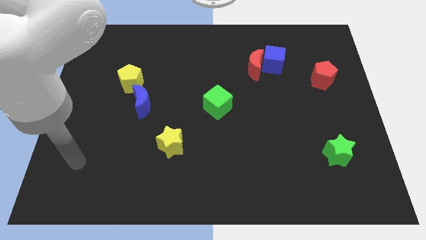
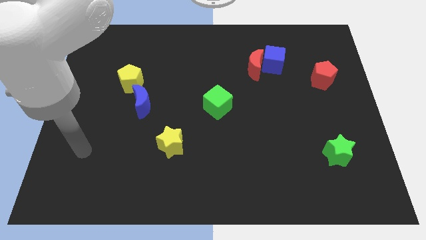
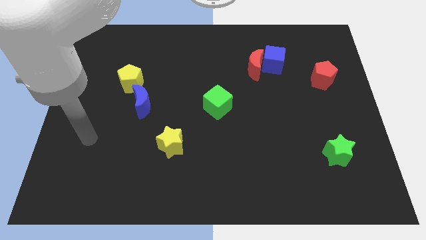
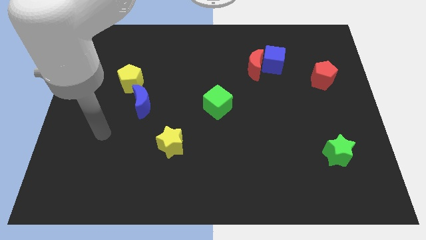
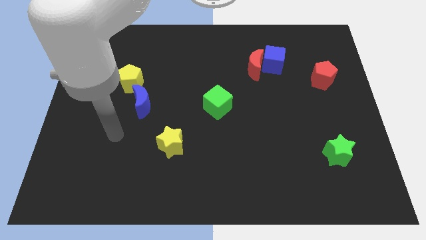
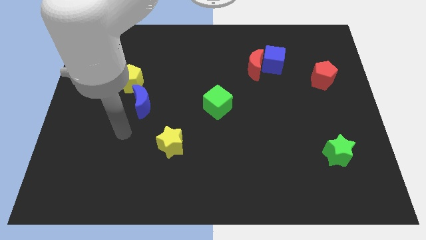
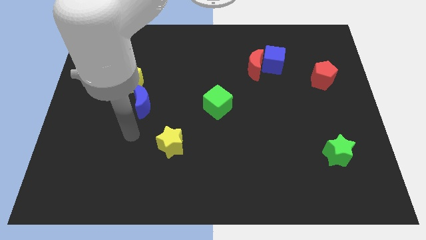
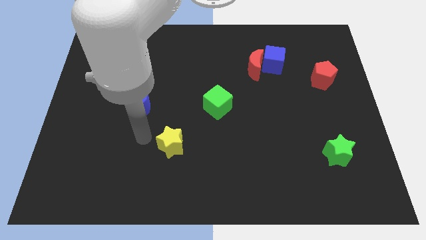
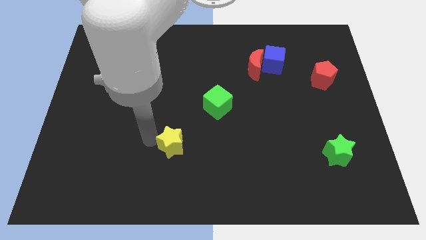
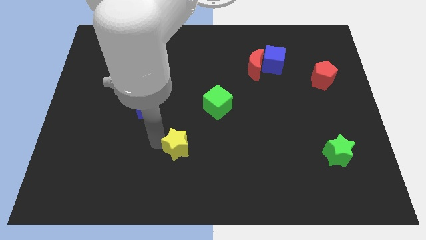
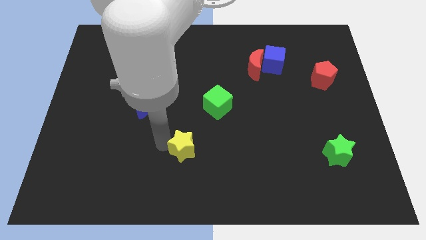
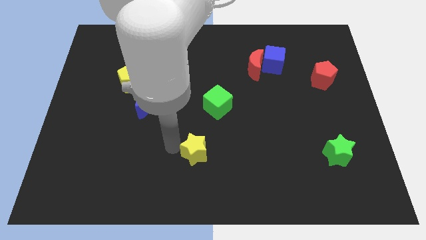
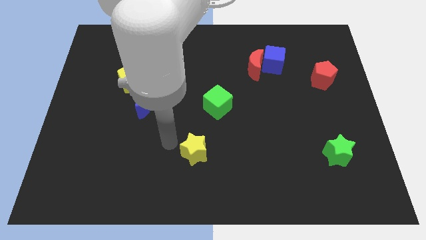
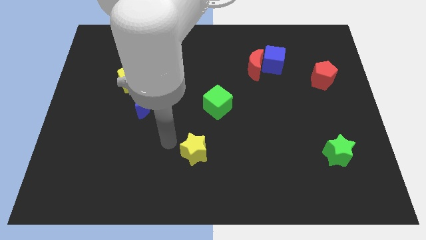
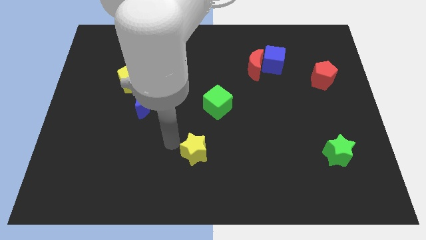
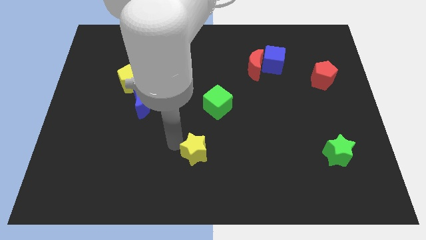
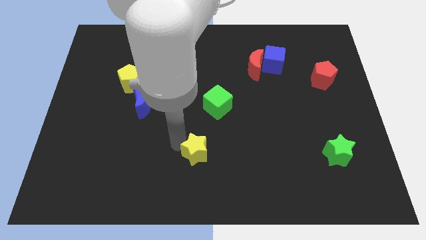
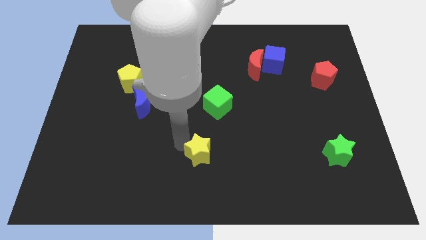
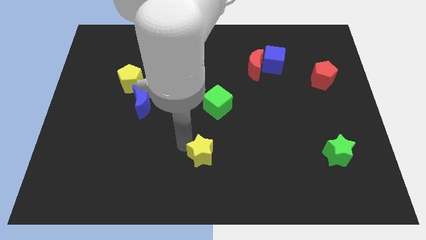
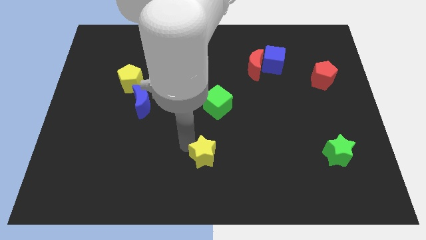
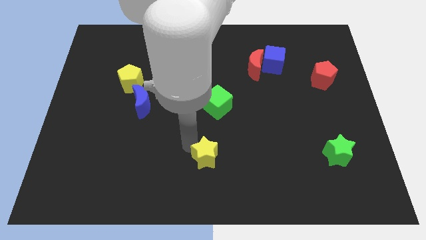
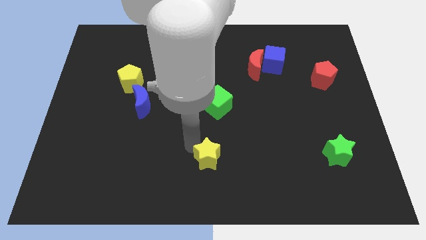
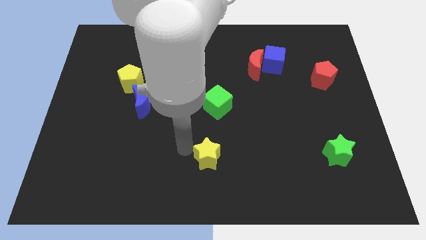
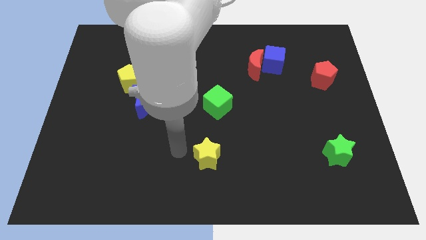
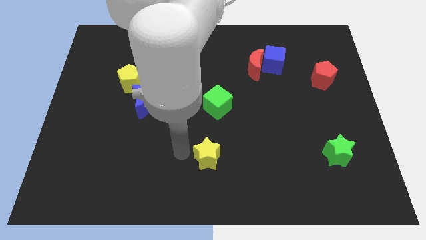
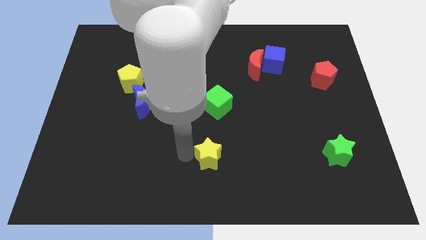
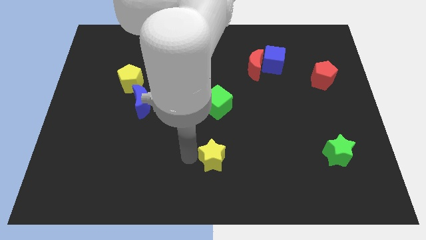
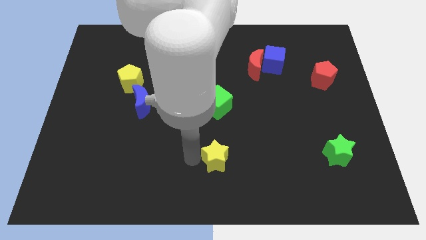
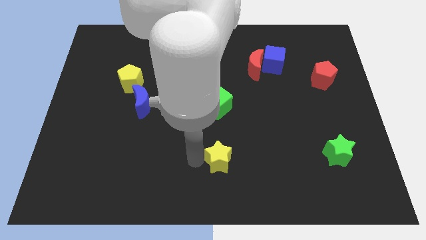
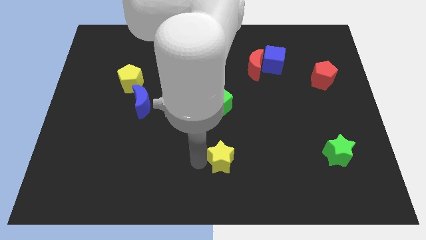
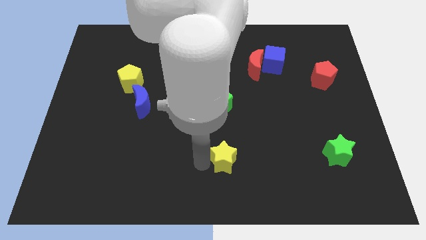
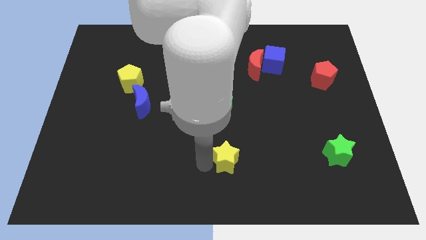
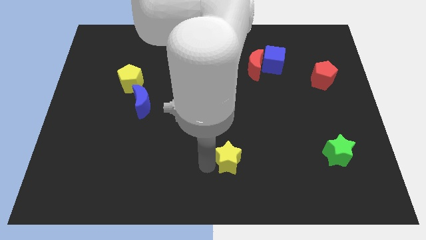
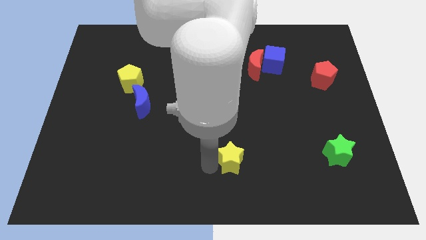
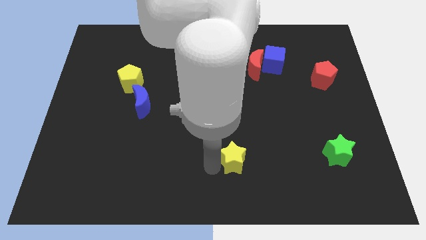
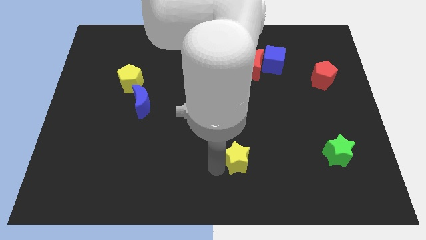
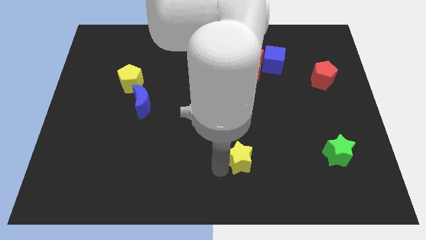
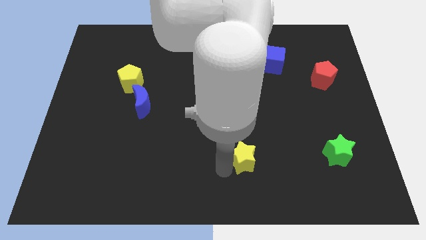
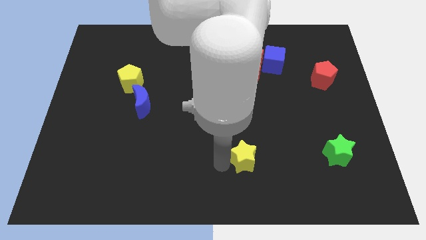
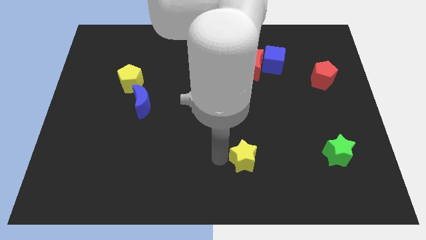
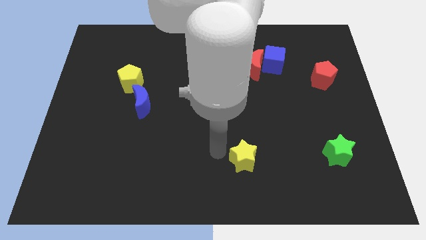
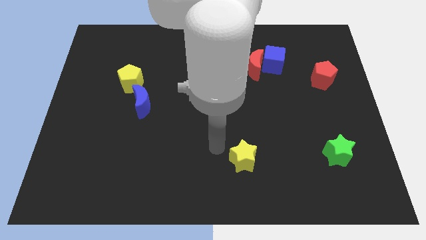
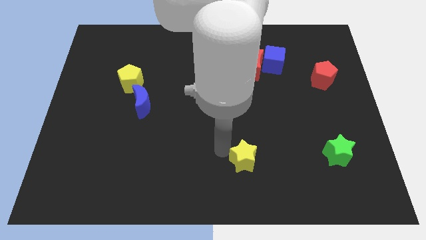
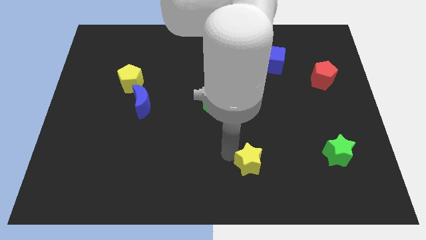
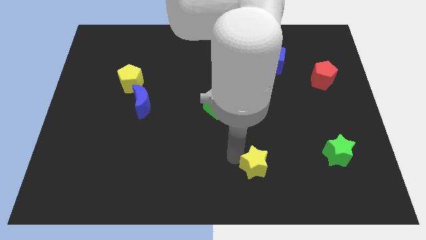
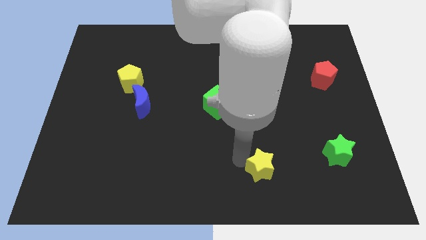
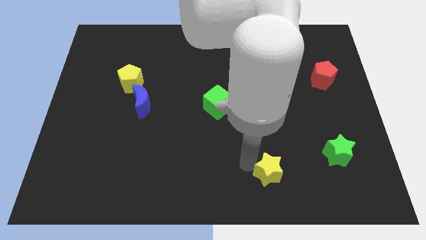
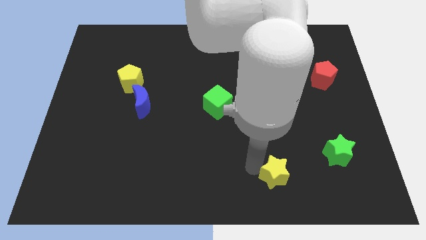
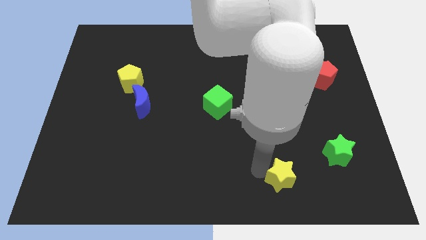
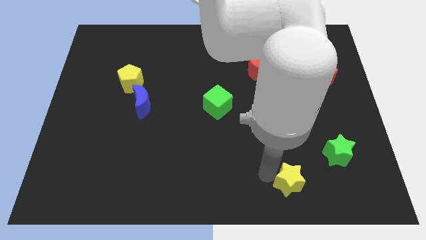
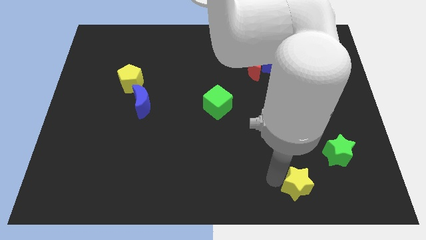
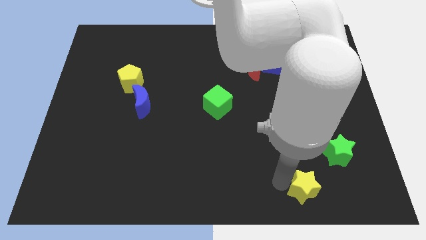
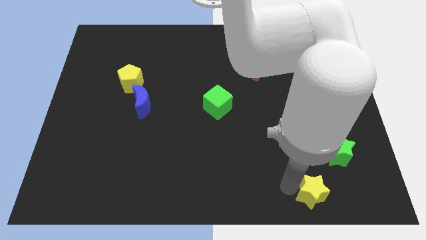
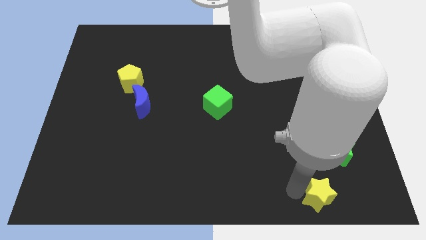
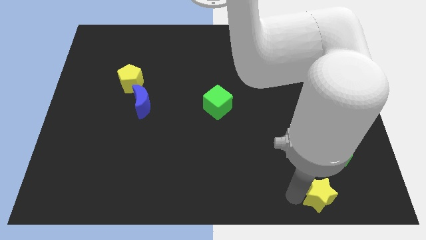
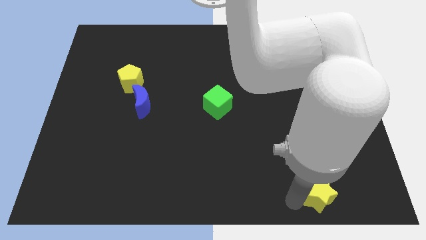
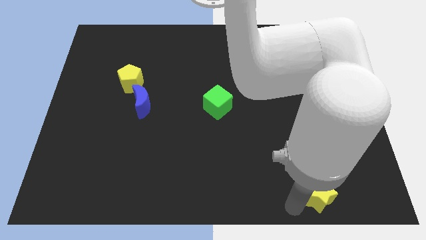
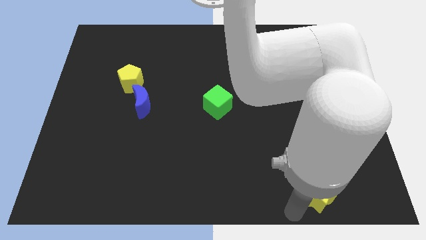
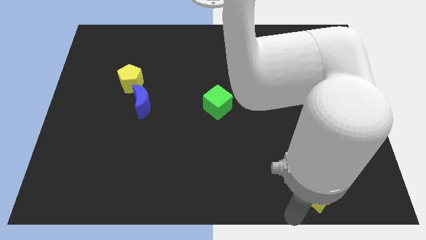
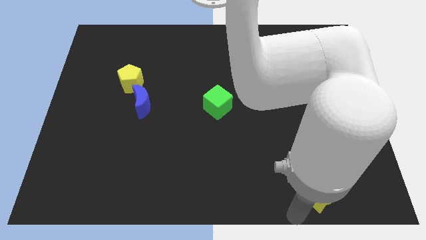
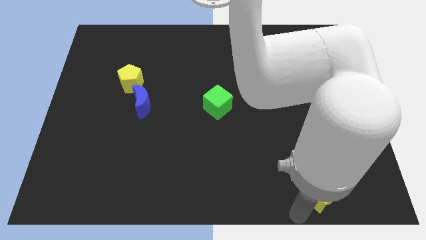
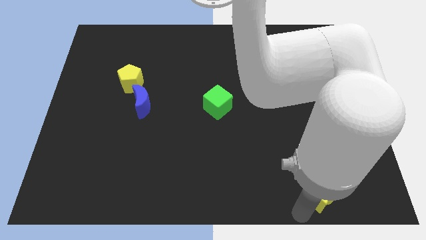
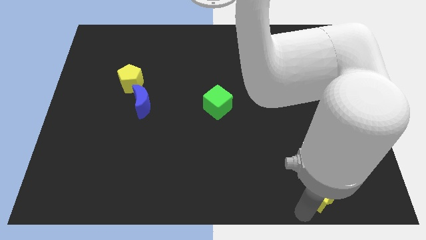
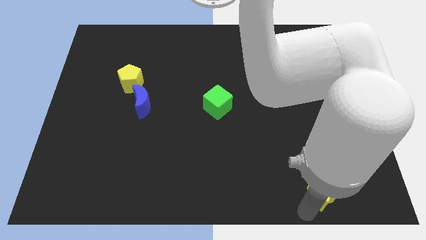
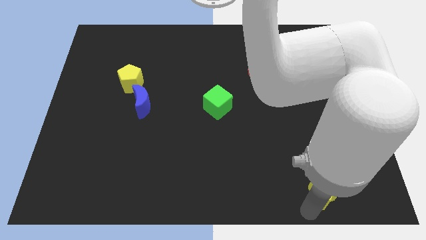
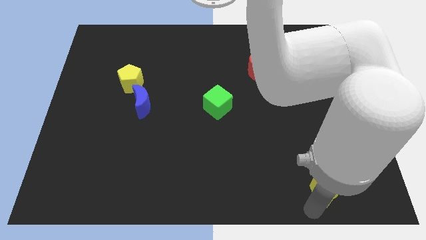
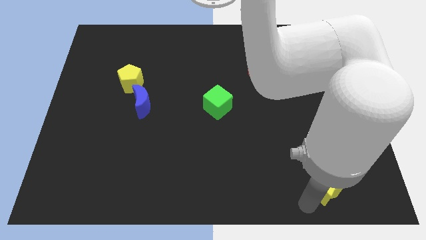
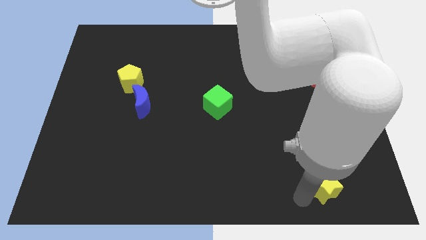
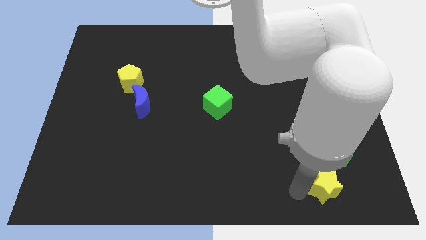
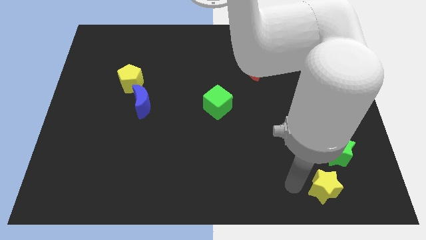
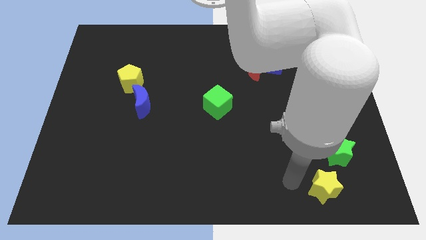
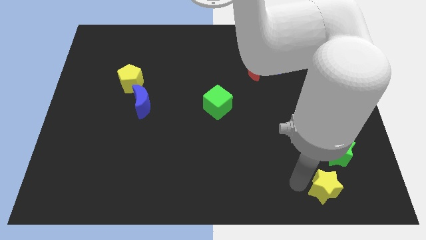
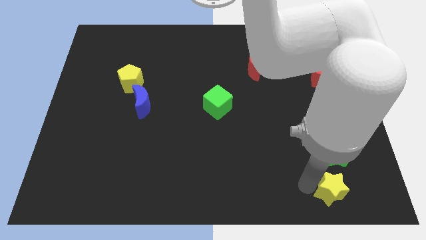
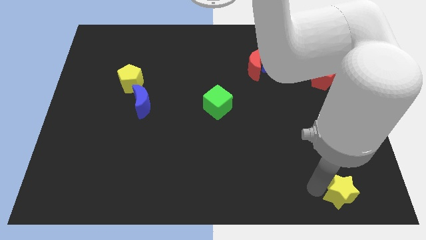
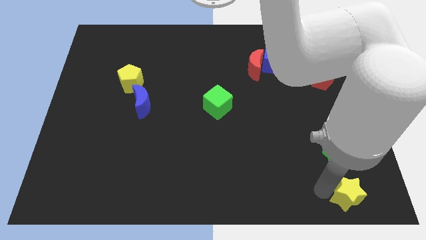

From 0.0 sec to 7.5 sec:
push the yellow star to the bottom right
